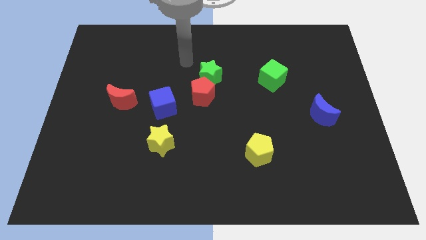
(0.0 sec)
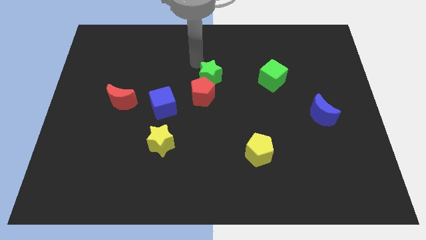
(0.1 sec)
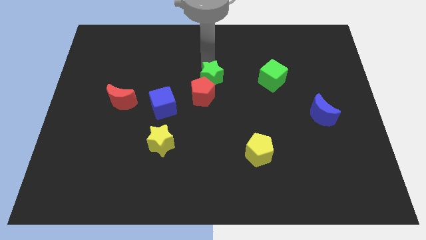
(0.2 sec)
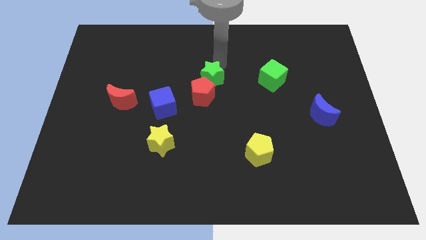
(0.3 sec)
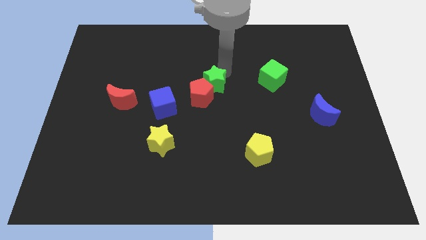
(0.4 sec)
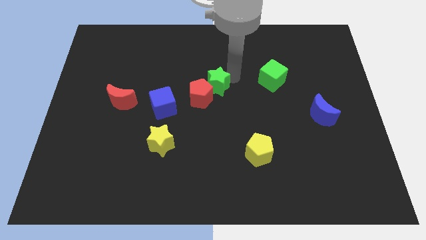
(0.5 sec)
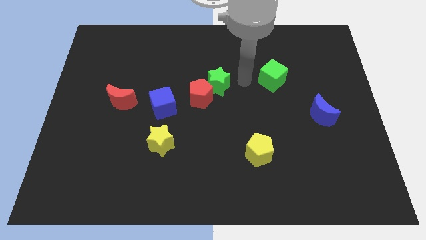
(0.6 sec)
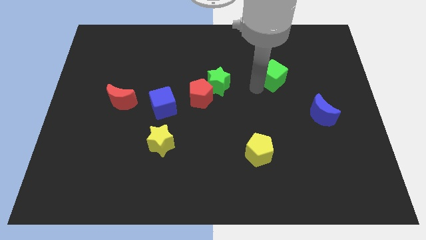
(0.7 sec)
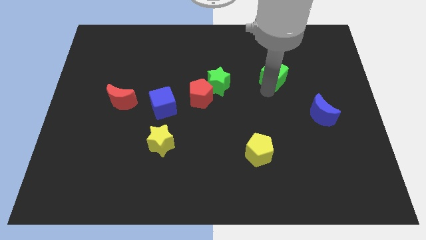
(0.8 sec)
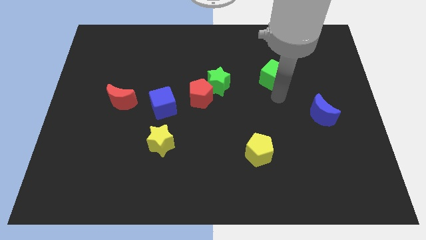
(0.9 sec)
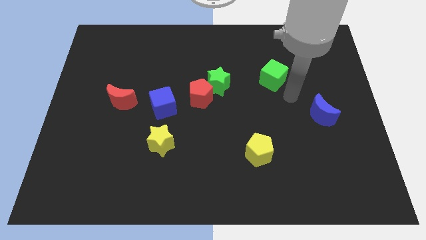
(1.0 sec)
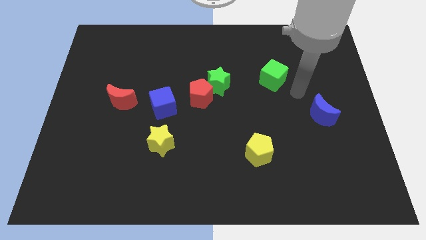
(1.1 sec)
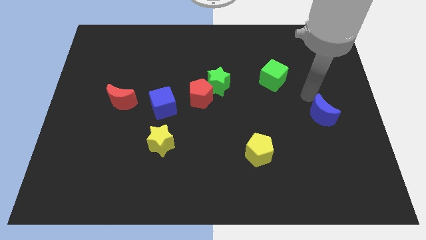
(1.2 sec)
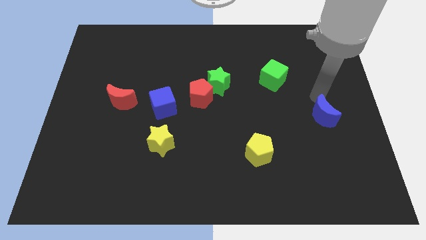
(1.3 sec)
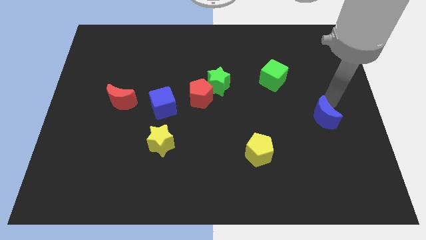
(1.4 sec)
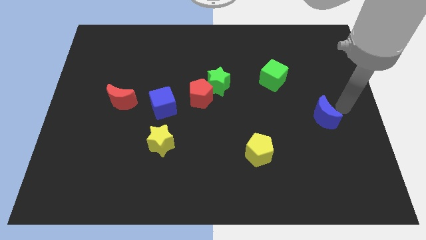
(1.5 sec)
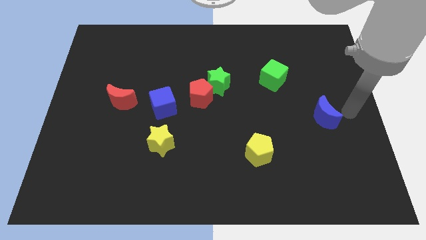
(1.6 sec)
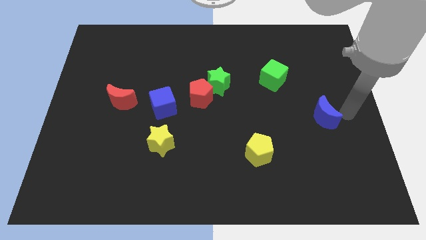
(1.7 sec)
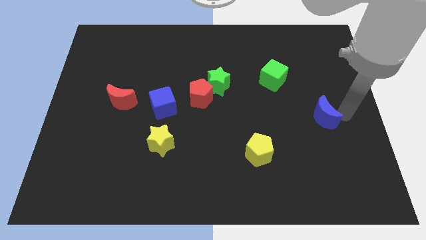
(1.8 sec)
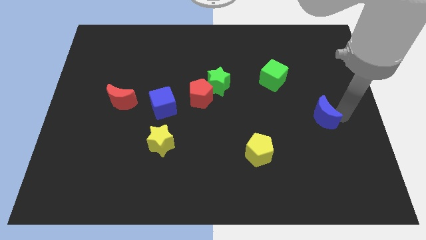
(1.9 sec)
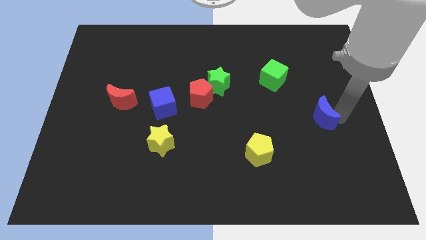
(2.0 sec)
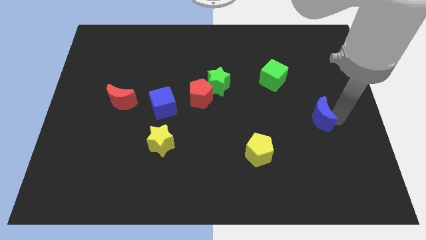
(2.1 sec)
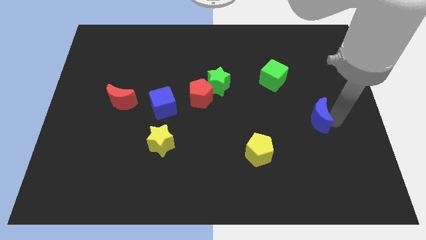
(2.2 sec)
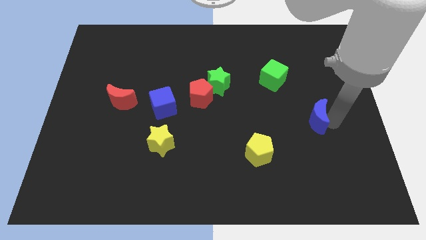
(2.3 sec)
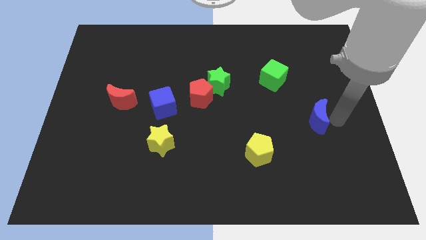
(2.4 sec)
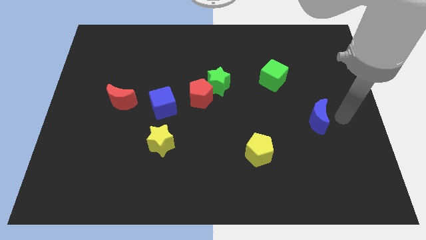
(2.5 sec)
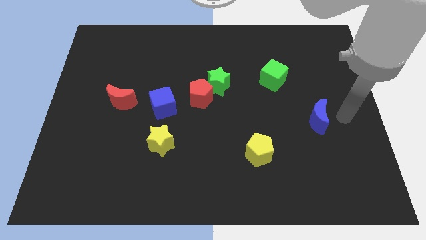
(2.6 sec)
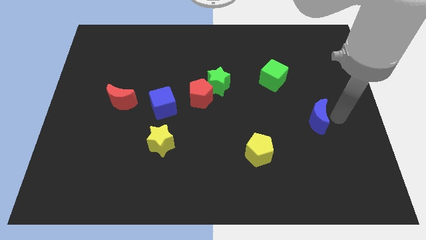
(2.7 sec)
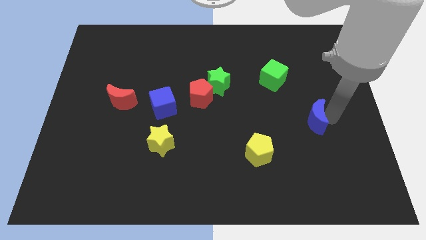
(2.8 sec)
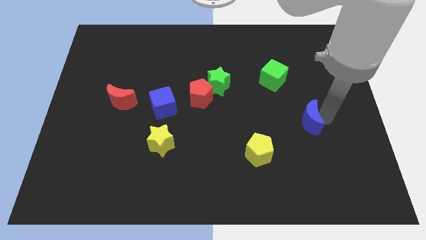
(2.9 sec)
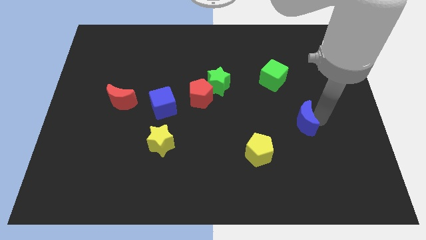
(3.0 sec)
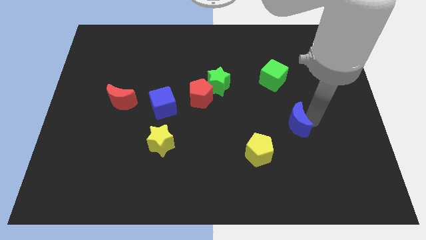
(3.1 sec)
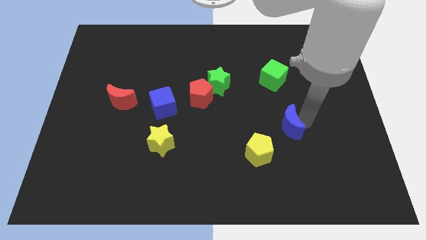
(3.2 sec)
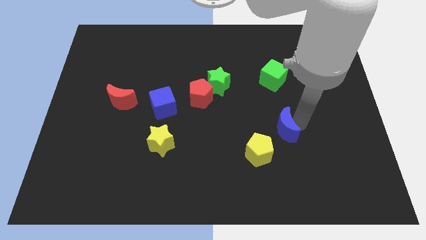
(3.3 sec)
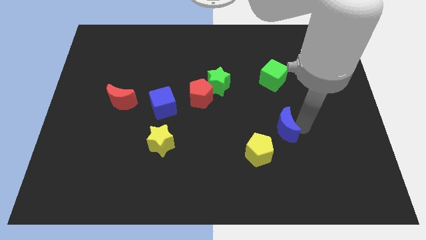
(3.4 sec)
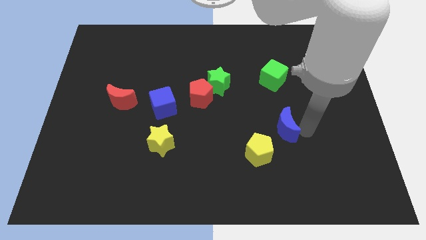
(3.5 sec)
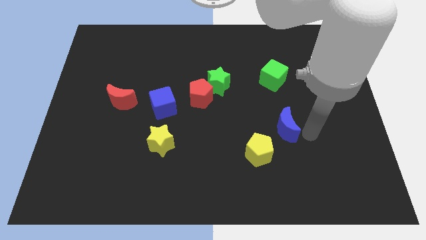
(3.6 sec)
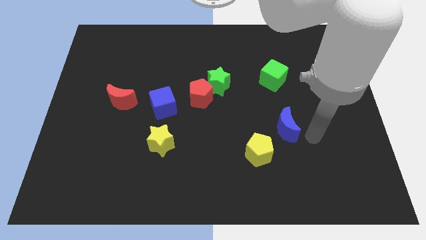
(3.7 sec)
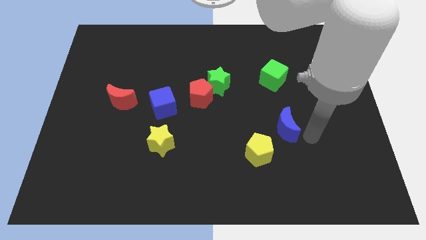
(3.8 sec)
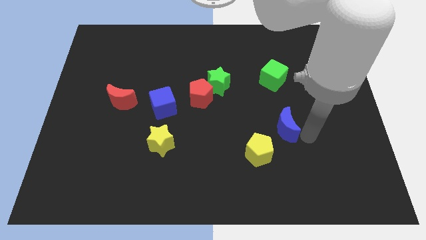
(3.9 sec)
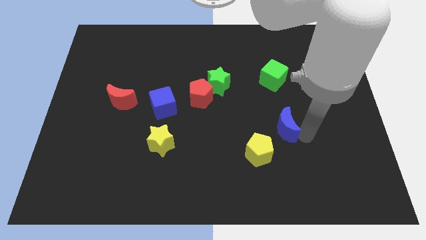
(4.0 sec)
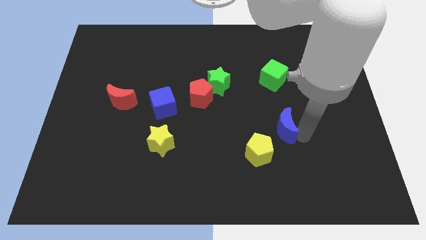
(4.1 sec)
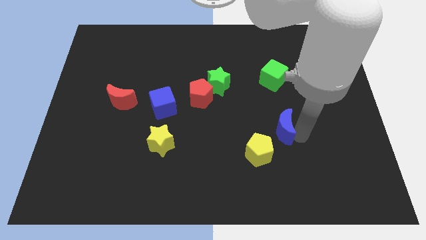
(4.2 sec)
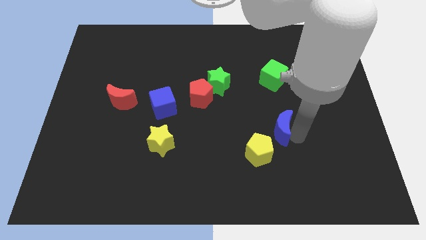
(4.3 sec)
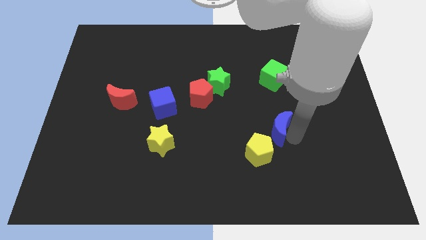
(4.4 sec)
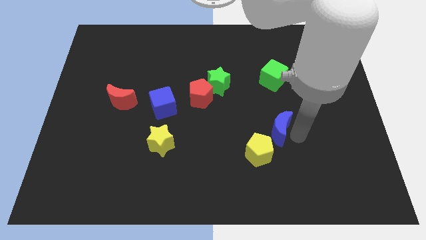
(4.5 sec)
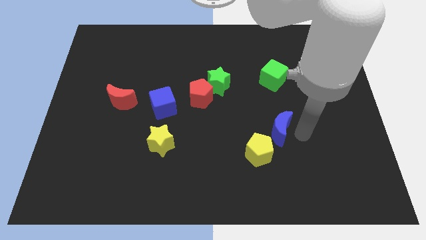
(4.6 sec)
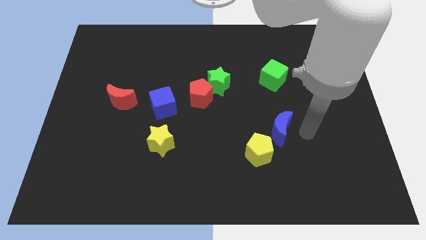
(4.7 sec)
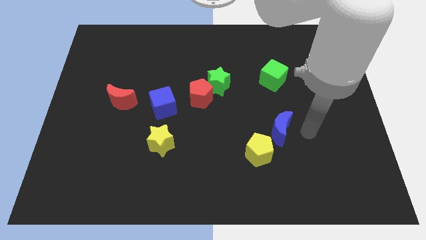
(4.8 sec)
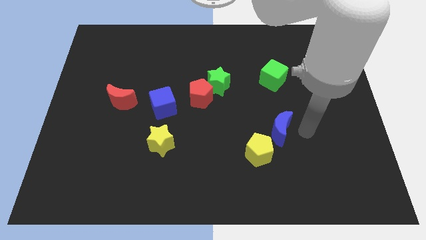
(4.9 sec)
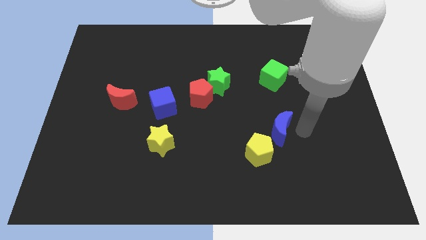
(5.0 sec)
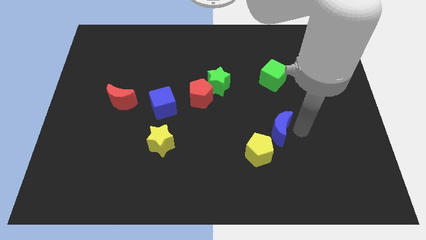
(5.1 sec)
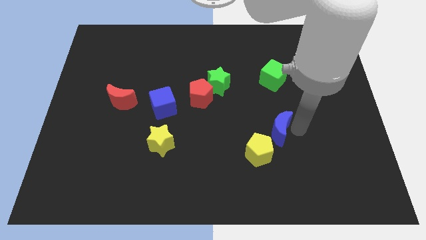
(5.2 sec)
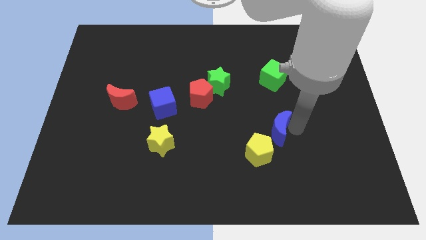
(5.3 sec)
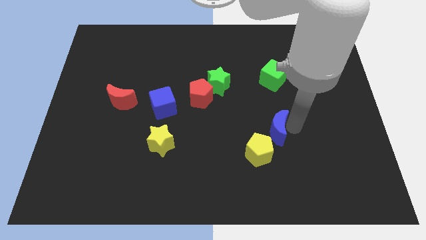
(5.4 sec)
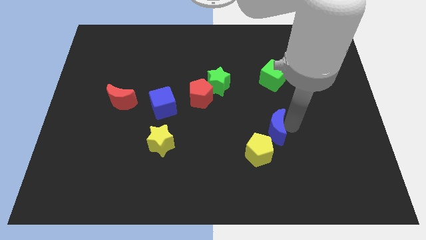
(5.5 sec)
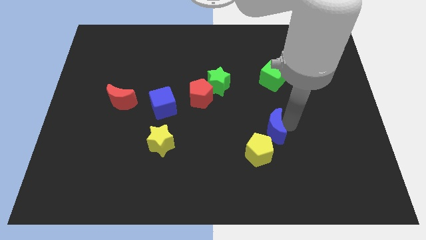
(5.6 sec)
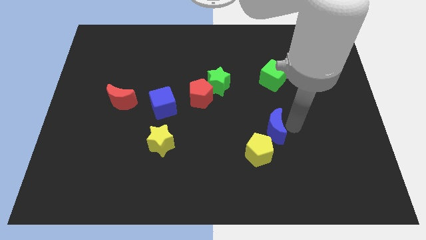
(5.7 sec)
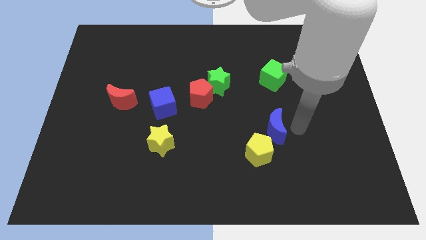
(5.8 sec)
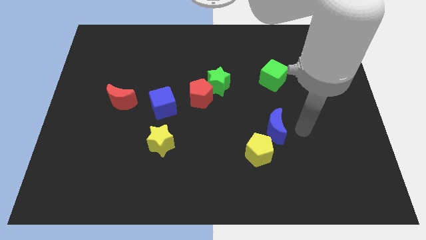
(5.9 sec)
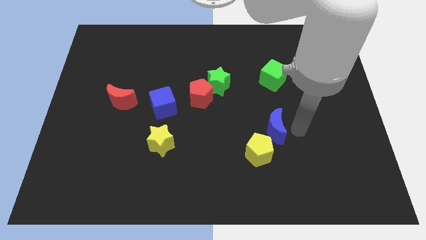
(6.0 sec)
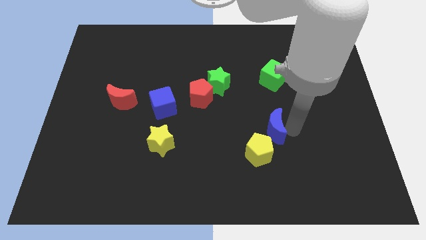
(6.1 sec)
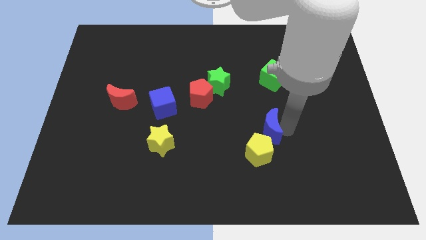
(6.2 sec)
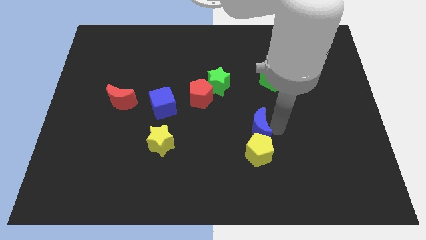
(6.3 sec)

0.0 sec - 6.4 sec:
put the blue moon to the top left side of the yellow pentagon

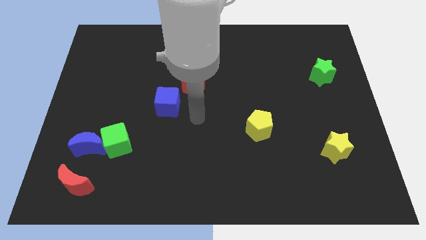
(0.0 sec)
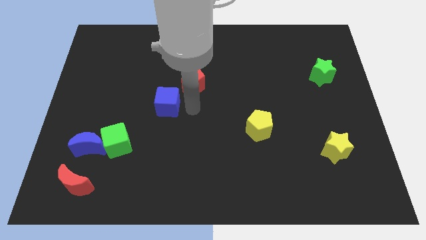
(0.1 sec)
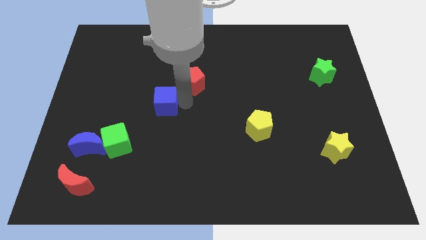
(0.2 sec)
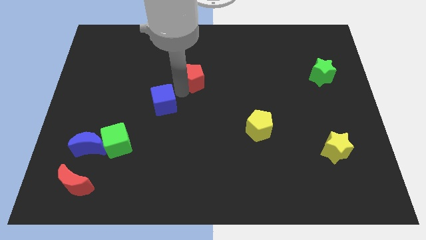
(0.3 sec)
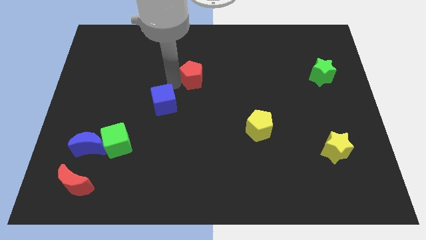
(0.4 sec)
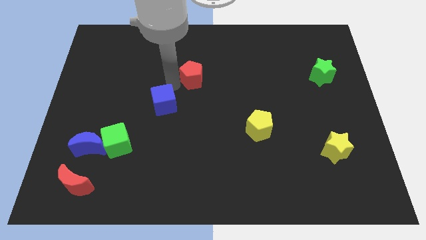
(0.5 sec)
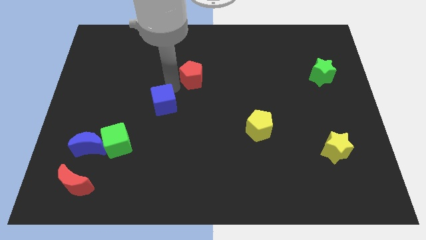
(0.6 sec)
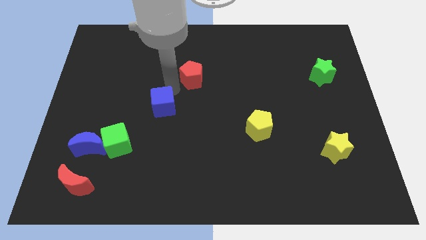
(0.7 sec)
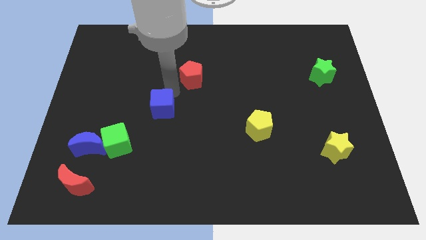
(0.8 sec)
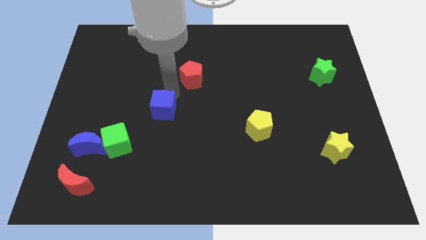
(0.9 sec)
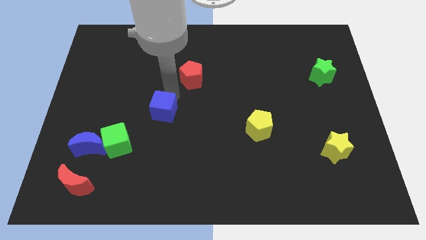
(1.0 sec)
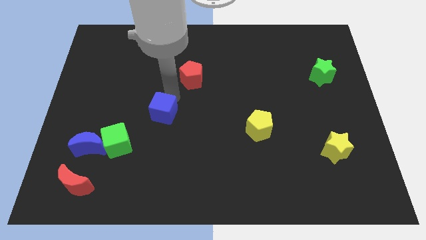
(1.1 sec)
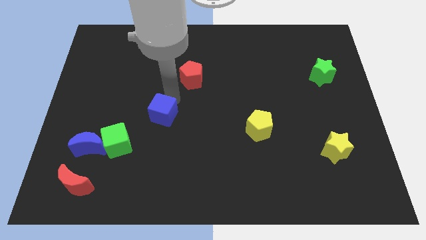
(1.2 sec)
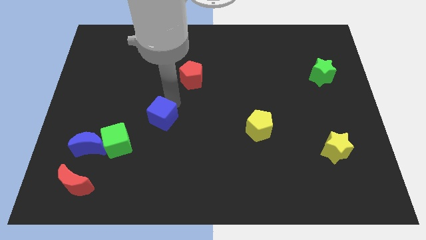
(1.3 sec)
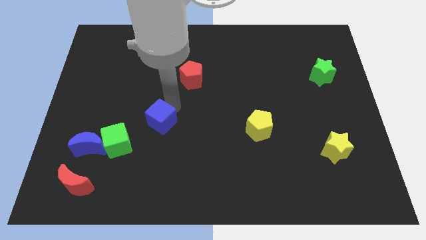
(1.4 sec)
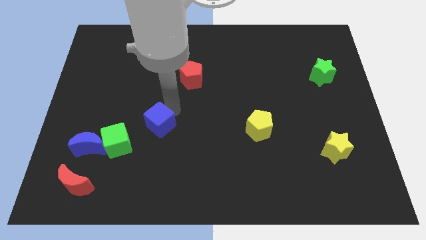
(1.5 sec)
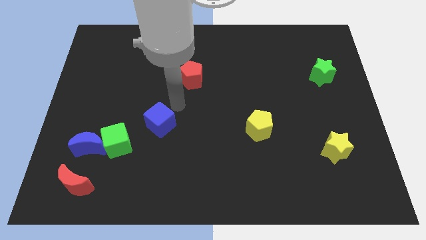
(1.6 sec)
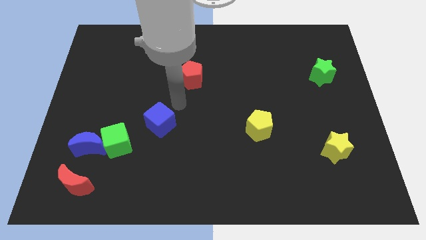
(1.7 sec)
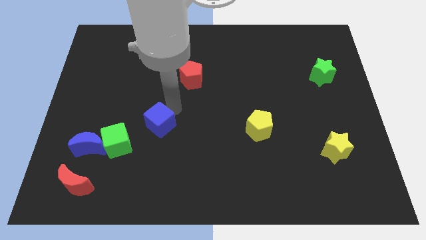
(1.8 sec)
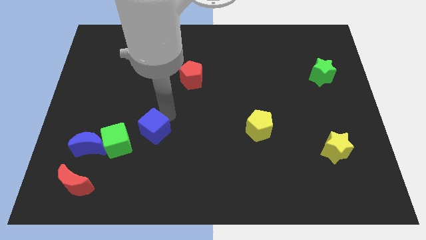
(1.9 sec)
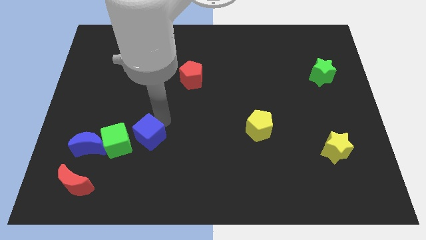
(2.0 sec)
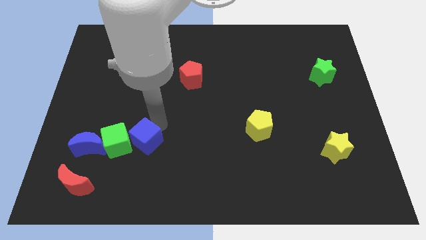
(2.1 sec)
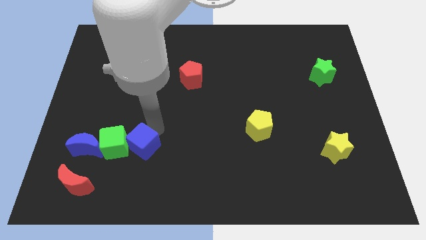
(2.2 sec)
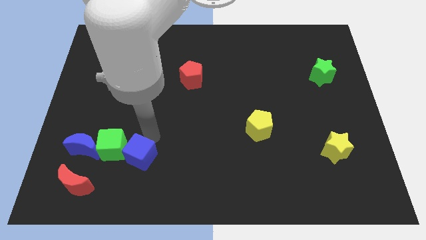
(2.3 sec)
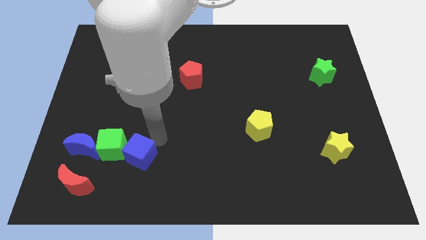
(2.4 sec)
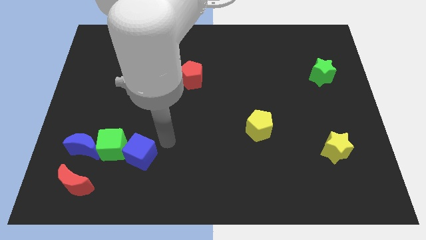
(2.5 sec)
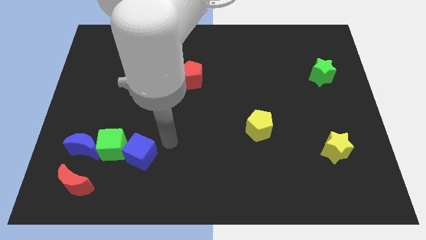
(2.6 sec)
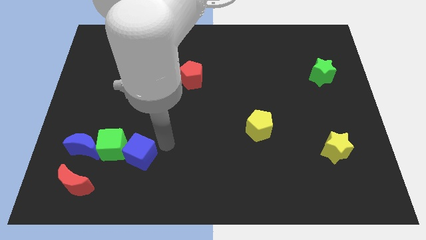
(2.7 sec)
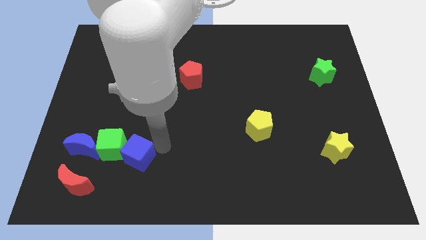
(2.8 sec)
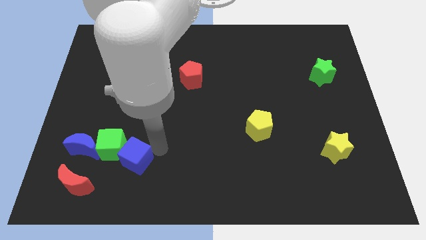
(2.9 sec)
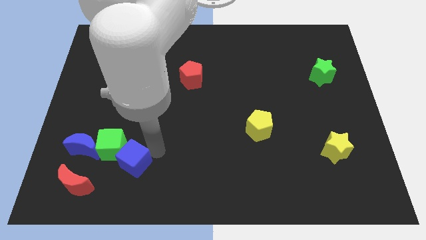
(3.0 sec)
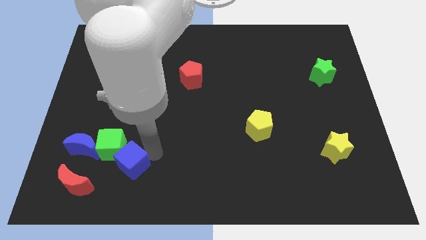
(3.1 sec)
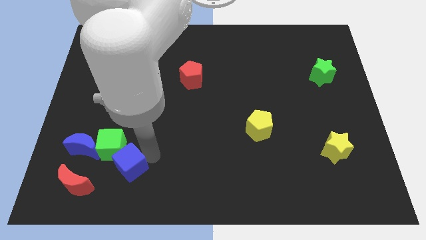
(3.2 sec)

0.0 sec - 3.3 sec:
push the blue cube diagonally down and to the right of the blue moon
